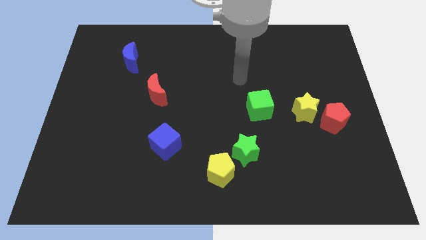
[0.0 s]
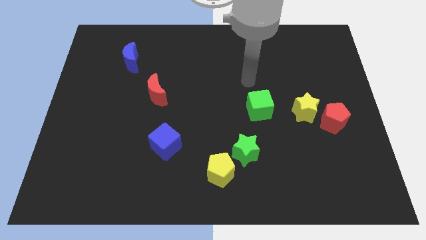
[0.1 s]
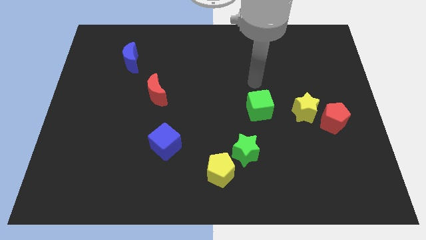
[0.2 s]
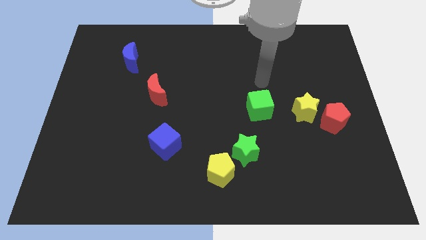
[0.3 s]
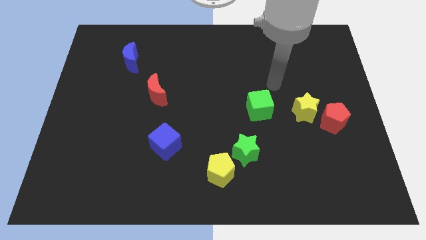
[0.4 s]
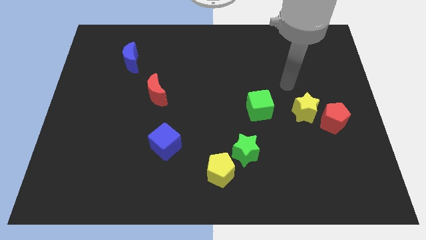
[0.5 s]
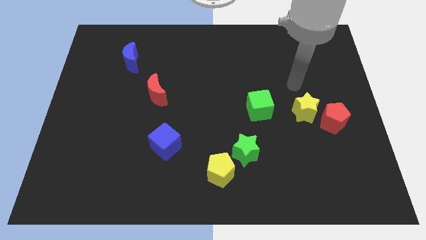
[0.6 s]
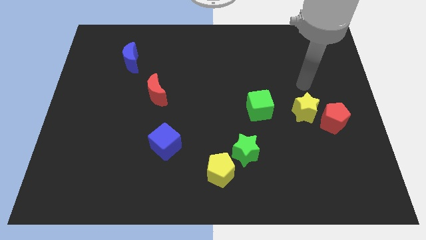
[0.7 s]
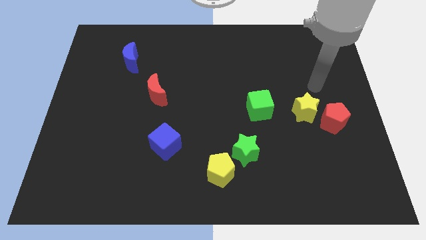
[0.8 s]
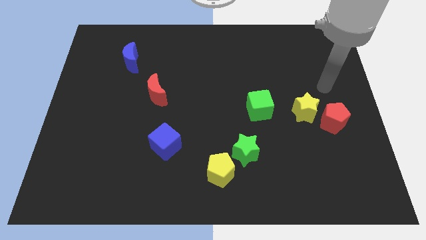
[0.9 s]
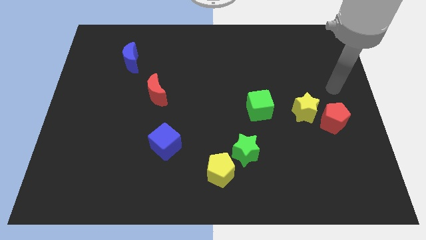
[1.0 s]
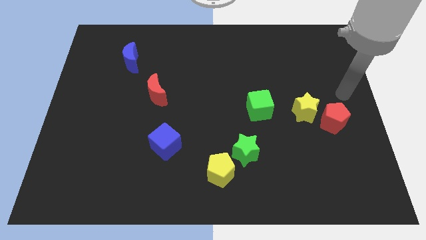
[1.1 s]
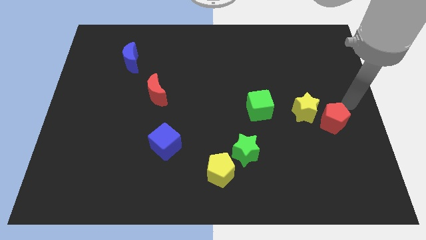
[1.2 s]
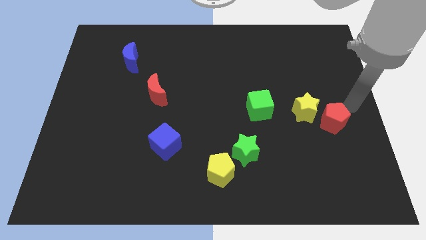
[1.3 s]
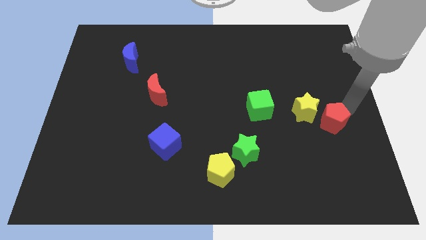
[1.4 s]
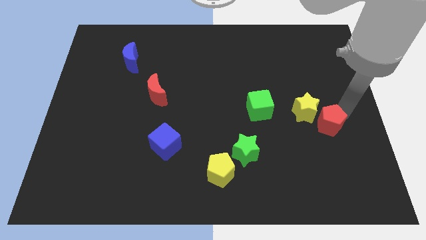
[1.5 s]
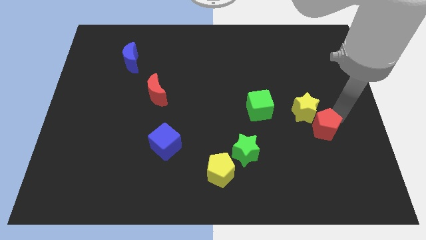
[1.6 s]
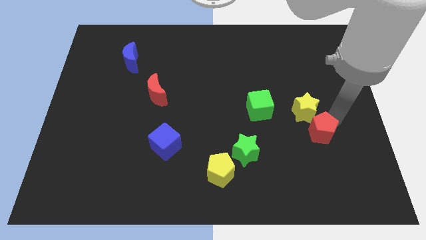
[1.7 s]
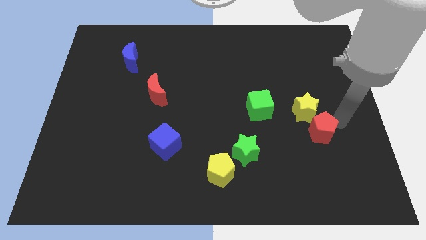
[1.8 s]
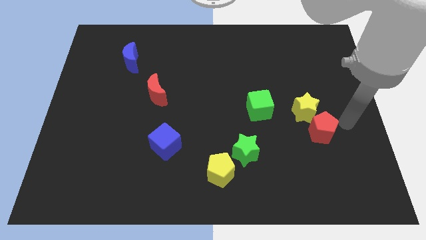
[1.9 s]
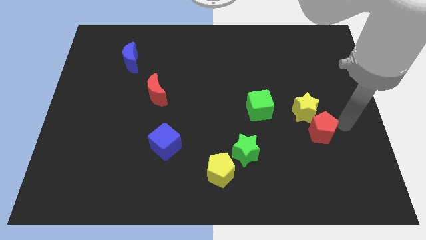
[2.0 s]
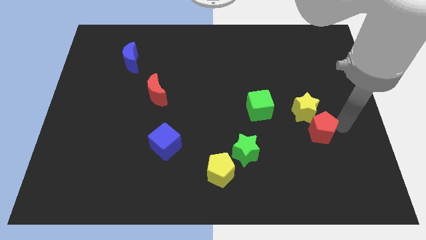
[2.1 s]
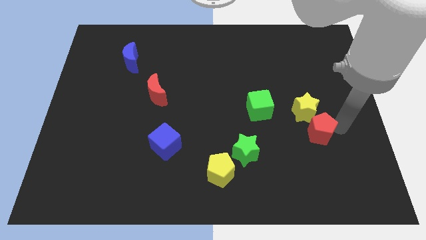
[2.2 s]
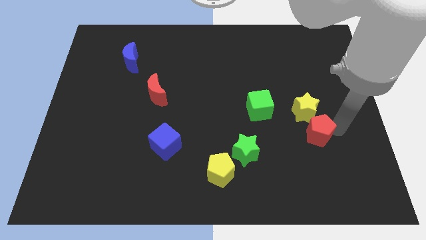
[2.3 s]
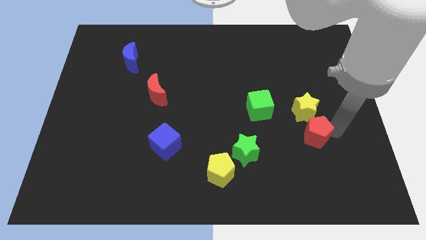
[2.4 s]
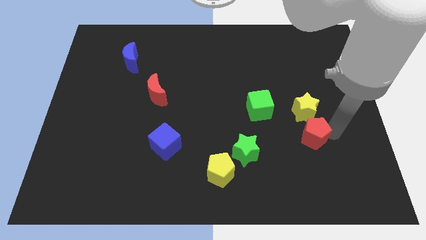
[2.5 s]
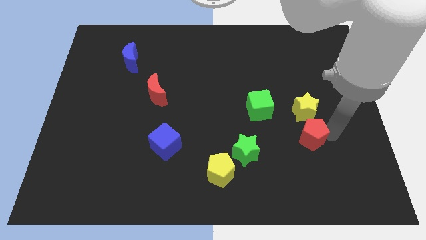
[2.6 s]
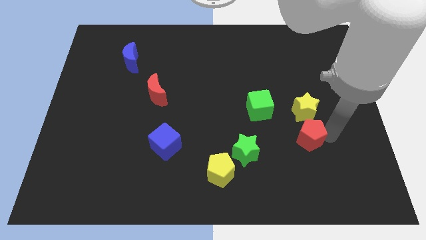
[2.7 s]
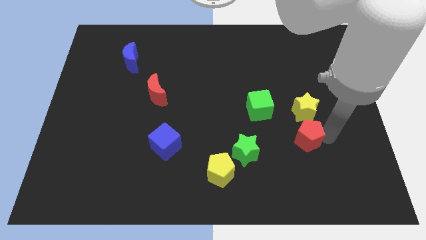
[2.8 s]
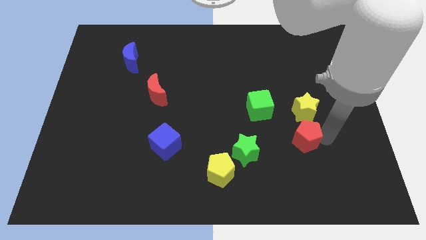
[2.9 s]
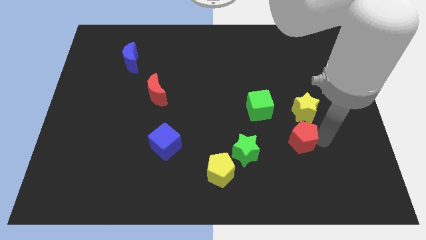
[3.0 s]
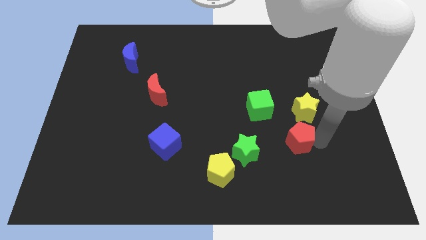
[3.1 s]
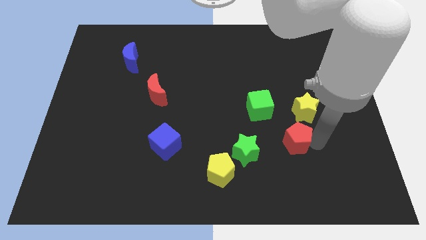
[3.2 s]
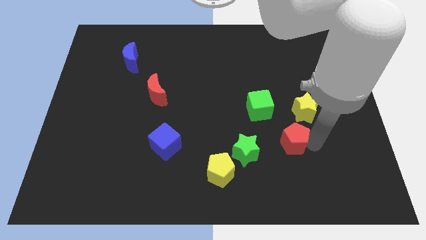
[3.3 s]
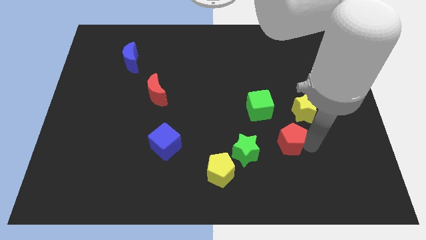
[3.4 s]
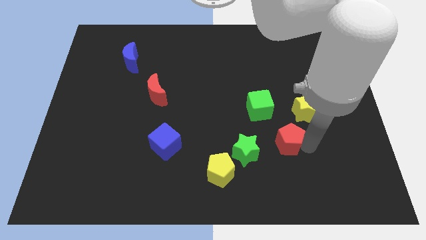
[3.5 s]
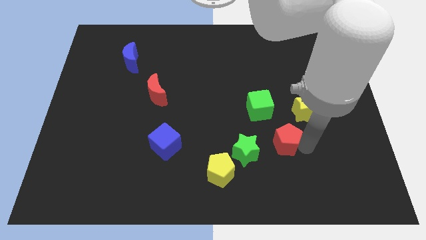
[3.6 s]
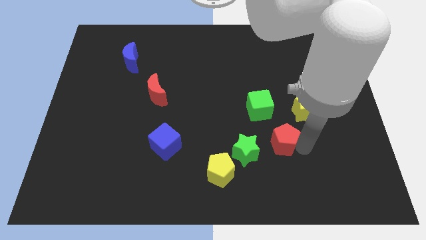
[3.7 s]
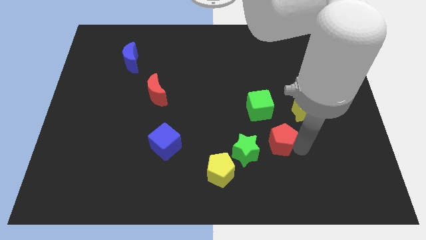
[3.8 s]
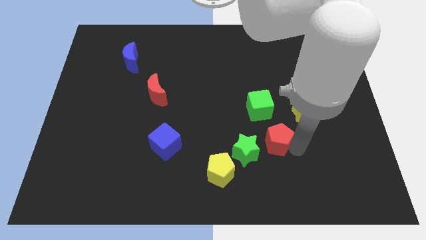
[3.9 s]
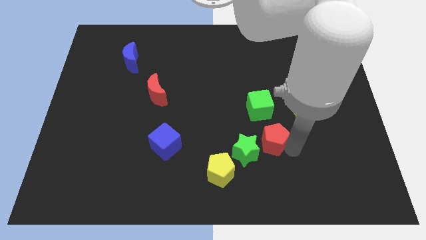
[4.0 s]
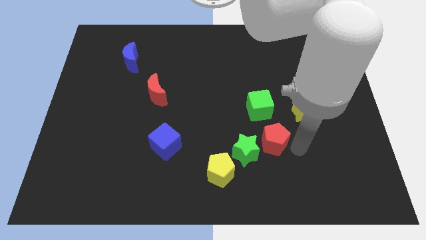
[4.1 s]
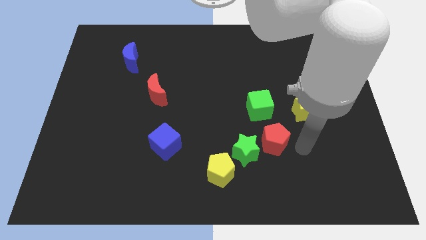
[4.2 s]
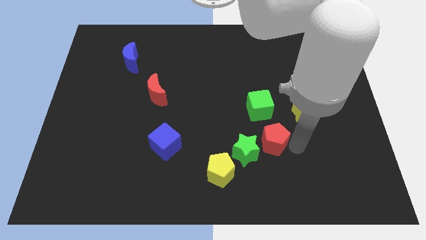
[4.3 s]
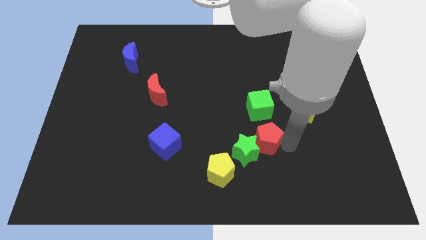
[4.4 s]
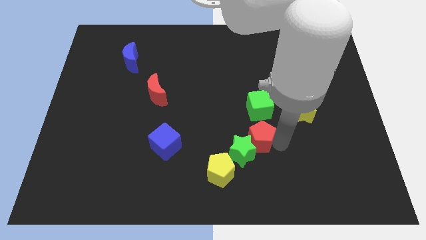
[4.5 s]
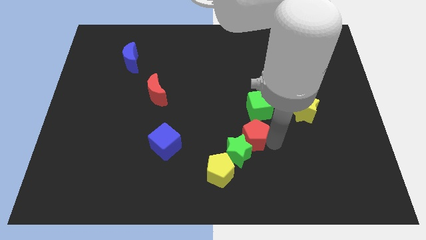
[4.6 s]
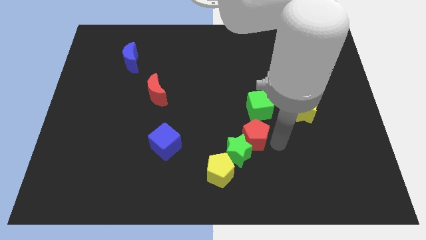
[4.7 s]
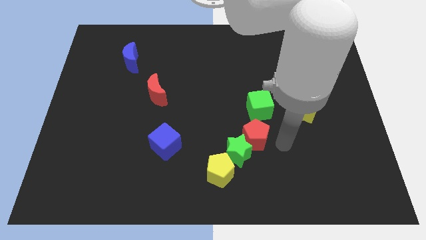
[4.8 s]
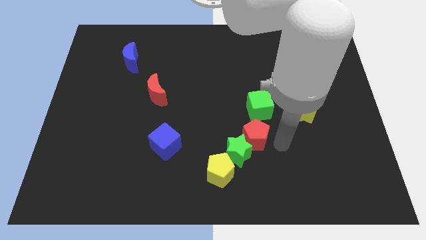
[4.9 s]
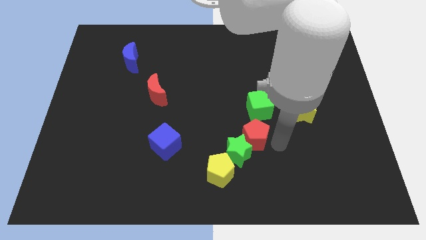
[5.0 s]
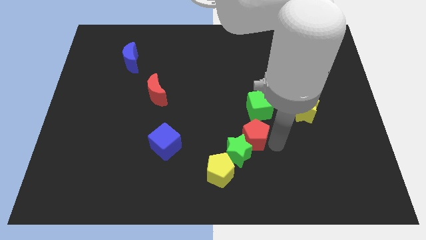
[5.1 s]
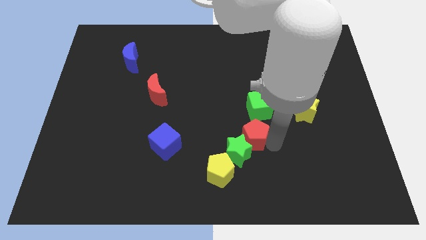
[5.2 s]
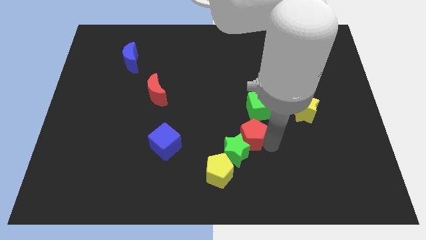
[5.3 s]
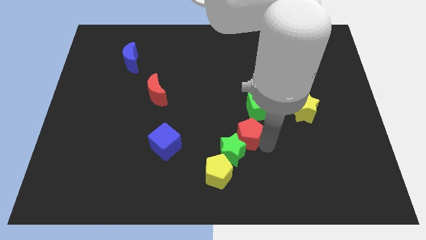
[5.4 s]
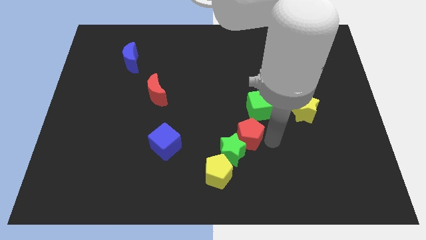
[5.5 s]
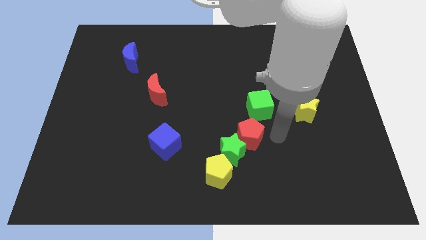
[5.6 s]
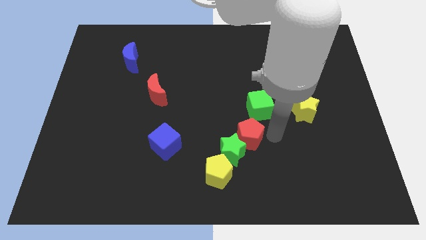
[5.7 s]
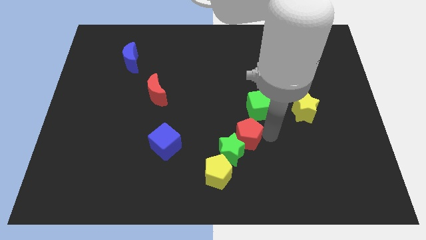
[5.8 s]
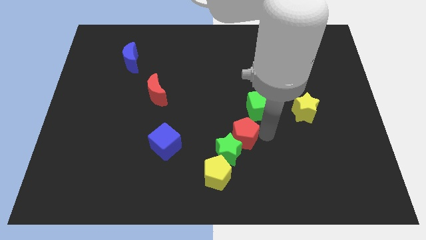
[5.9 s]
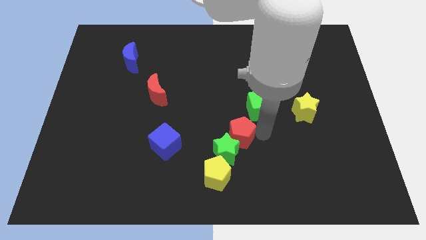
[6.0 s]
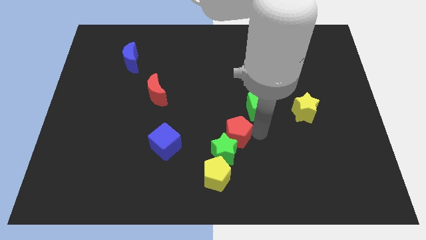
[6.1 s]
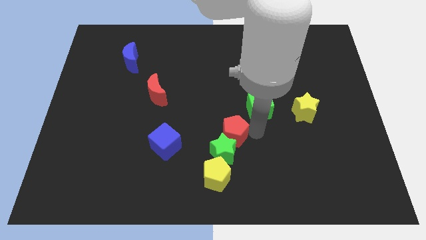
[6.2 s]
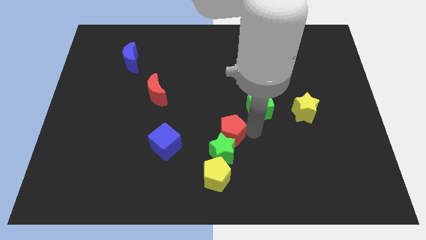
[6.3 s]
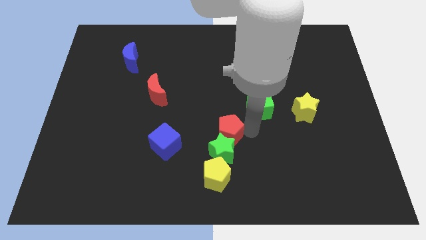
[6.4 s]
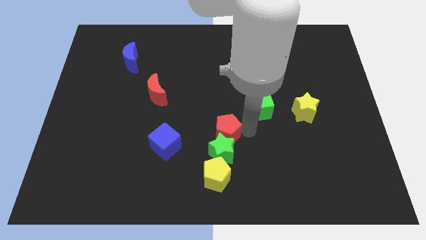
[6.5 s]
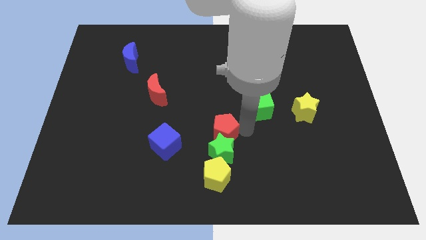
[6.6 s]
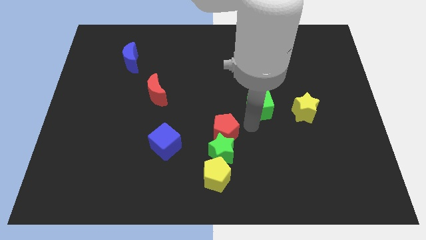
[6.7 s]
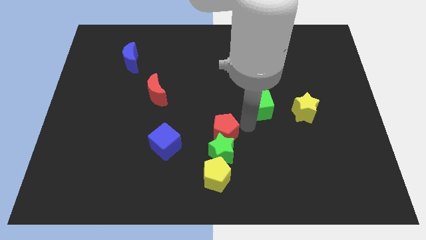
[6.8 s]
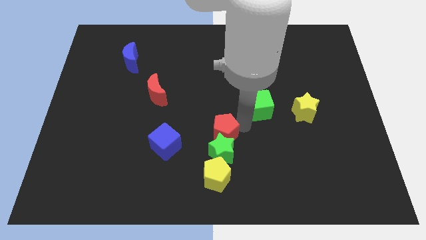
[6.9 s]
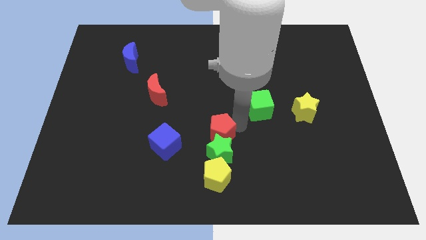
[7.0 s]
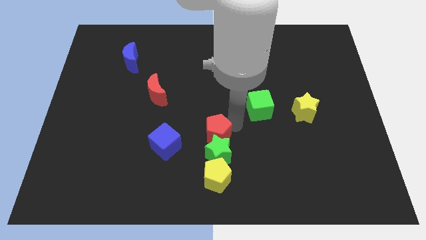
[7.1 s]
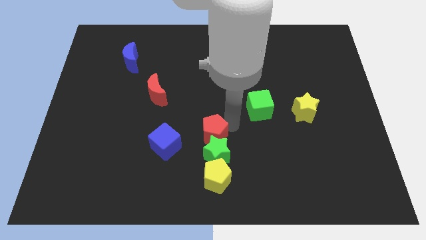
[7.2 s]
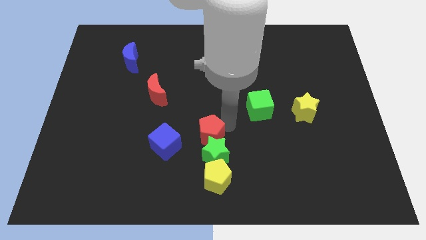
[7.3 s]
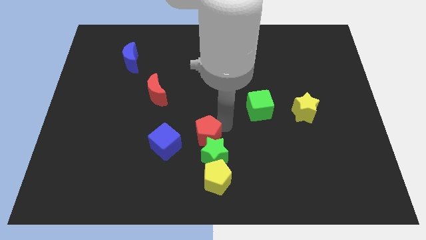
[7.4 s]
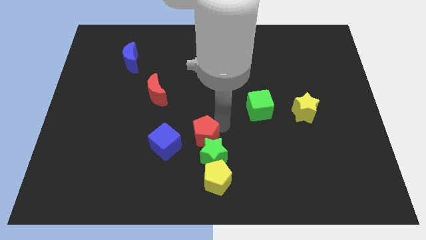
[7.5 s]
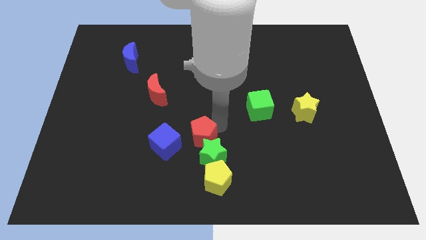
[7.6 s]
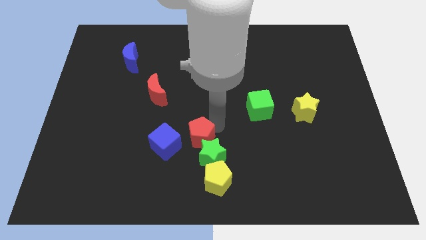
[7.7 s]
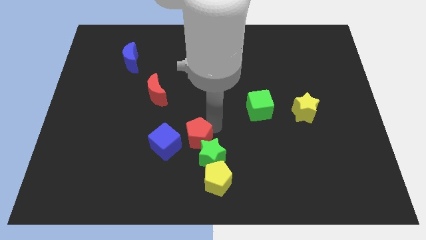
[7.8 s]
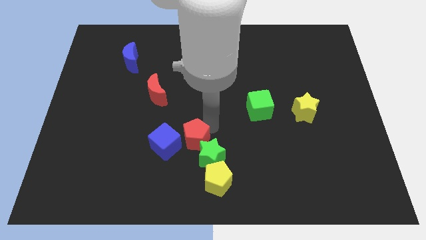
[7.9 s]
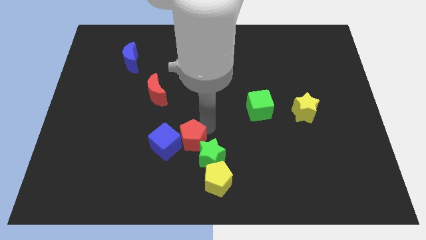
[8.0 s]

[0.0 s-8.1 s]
move the red pentagon next to the blue cube
